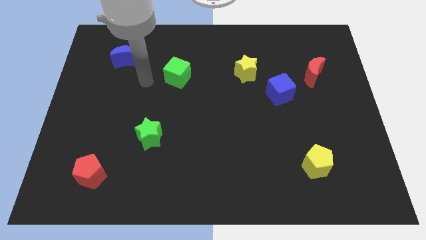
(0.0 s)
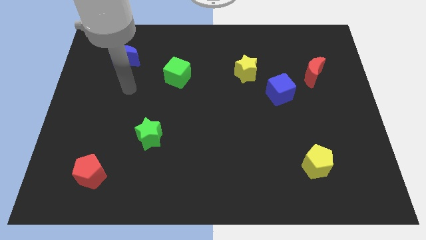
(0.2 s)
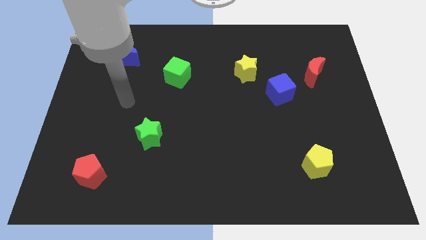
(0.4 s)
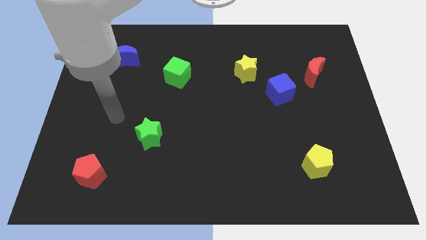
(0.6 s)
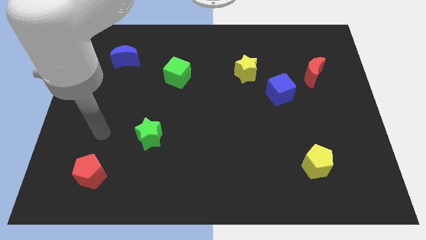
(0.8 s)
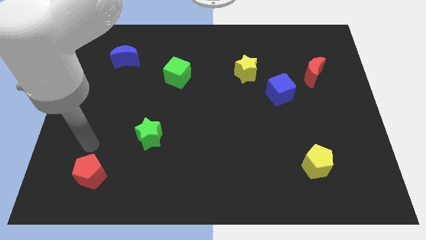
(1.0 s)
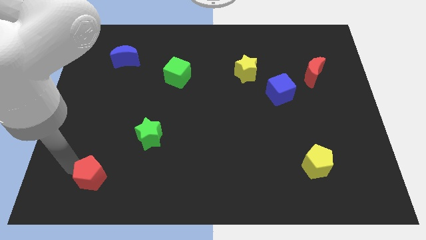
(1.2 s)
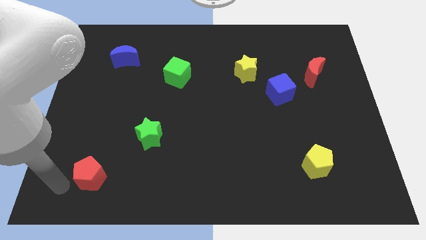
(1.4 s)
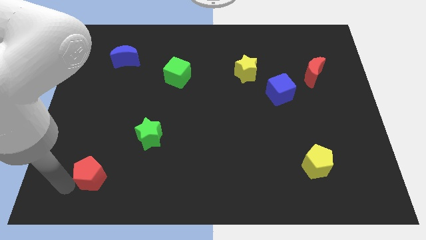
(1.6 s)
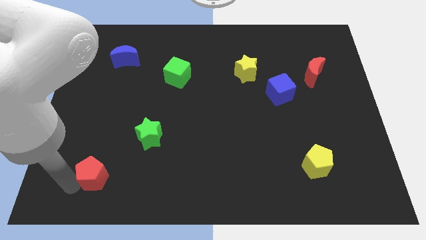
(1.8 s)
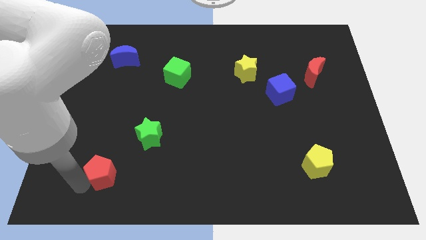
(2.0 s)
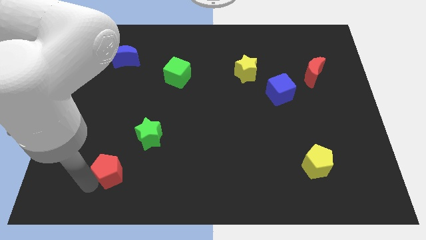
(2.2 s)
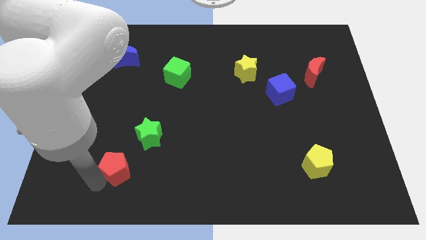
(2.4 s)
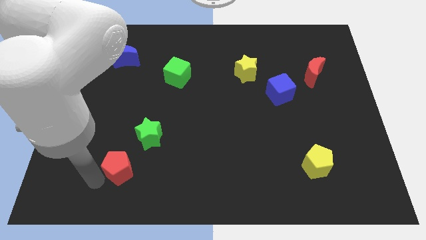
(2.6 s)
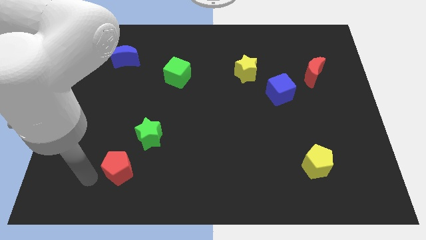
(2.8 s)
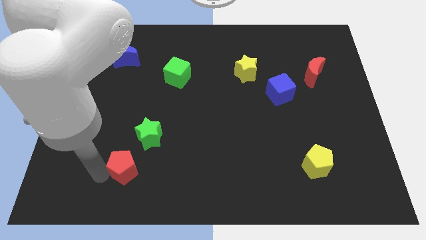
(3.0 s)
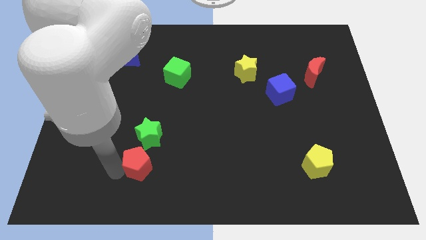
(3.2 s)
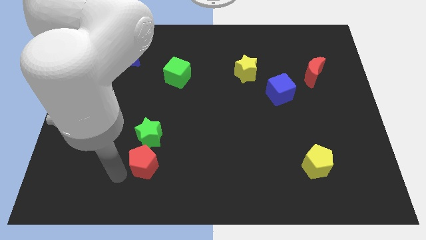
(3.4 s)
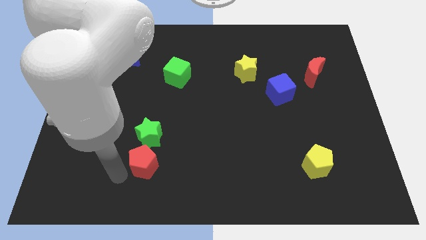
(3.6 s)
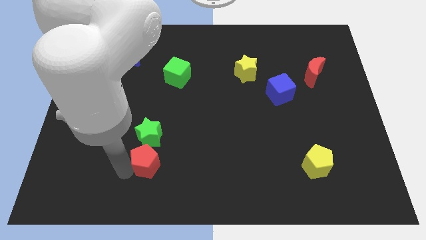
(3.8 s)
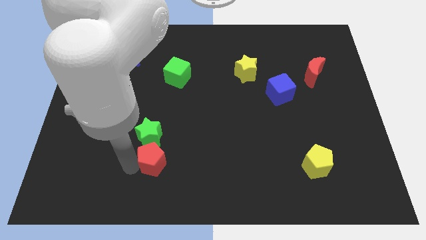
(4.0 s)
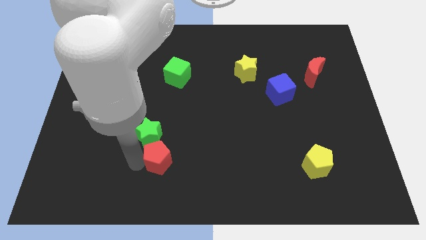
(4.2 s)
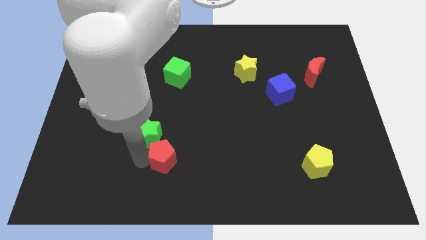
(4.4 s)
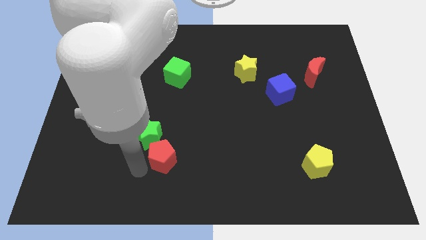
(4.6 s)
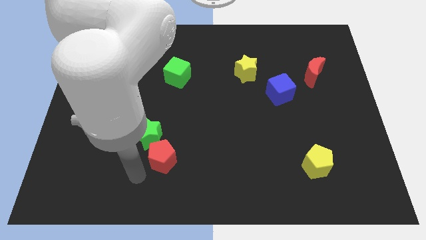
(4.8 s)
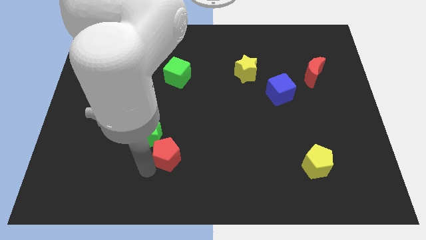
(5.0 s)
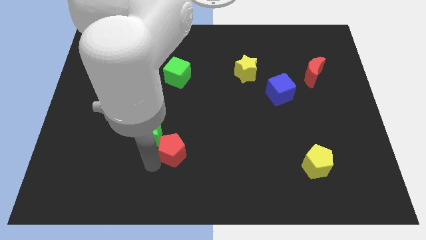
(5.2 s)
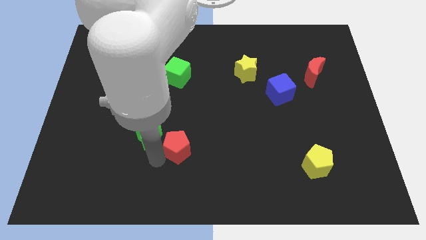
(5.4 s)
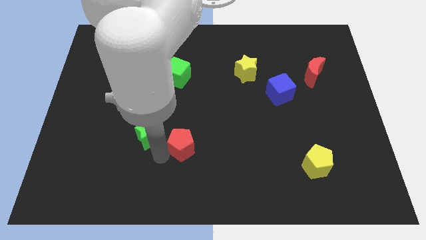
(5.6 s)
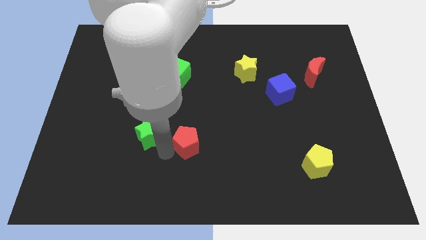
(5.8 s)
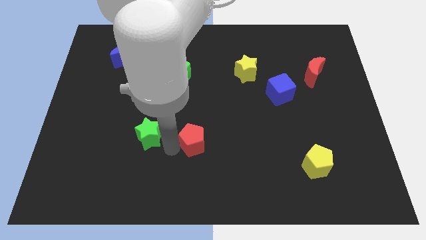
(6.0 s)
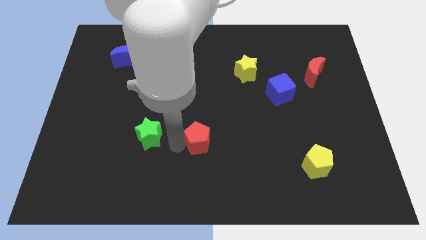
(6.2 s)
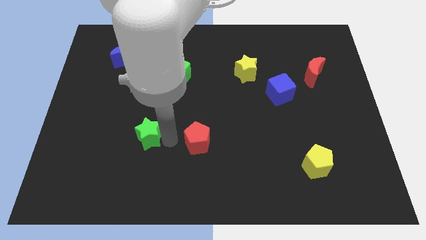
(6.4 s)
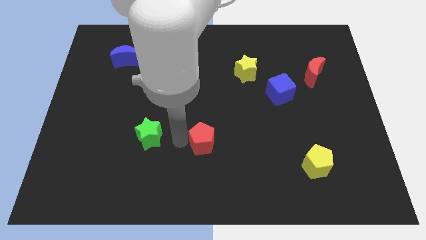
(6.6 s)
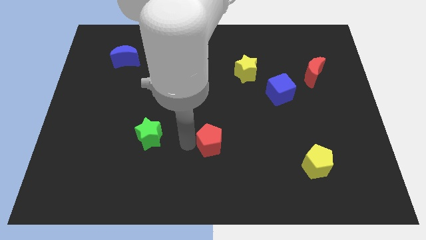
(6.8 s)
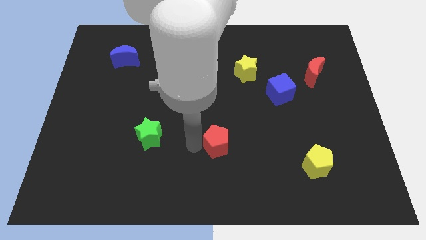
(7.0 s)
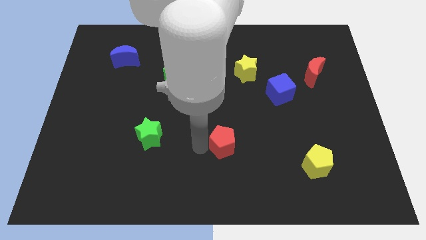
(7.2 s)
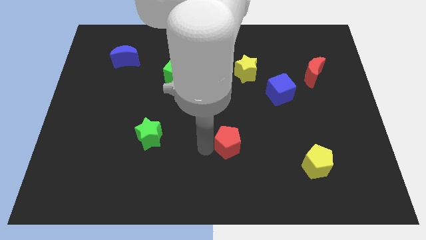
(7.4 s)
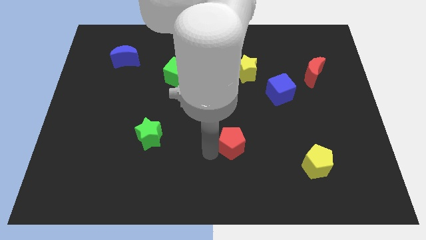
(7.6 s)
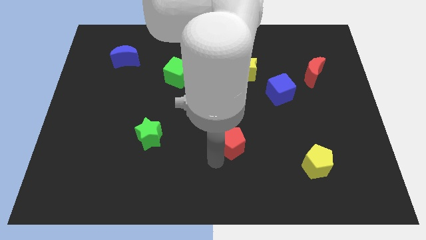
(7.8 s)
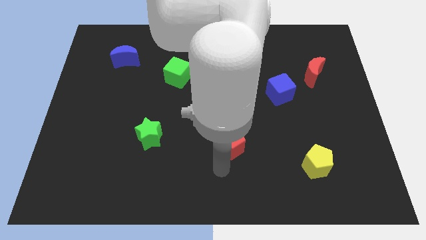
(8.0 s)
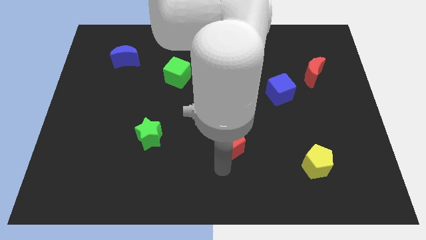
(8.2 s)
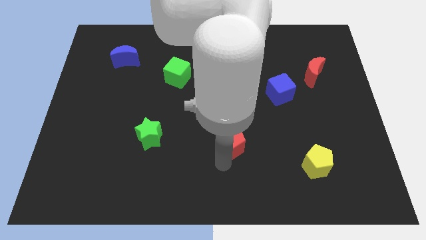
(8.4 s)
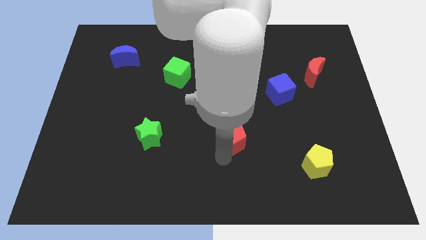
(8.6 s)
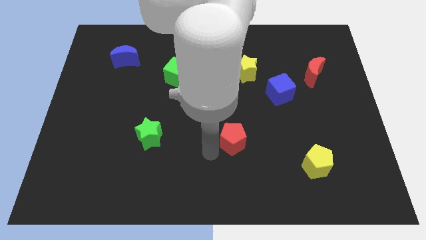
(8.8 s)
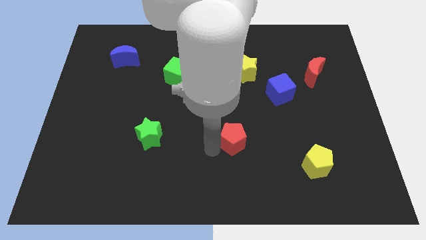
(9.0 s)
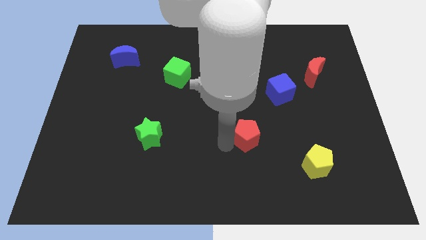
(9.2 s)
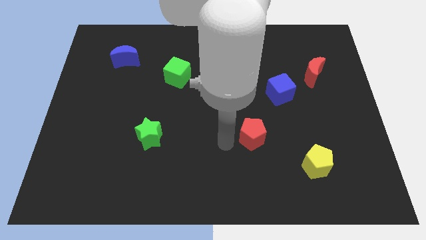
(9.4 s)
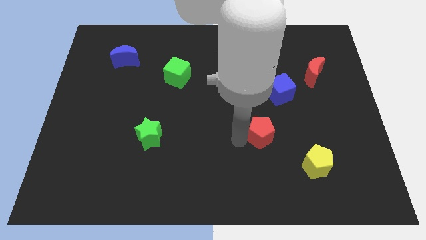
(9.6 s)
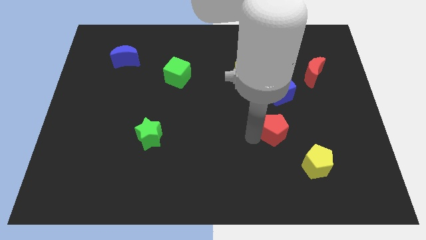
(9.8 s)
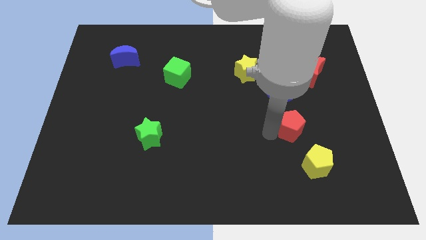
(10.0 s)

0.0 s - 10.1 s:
put the red pentagon to the top of the yellow pentagon

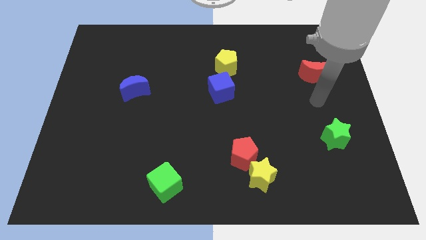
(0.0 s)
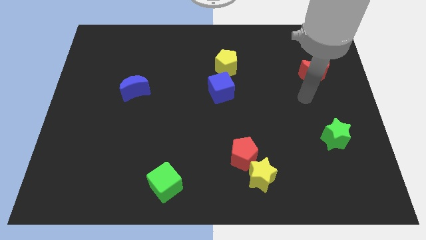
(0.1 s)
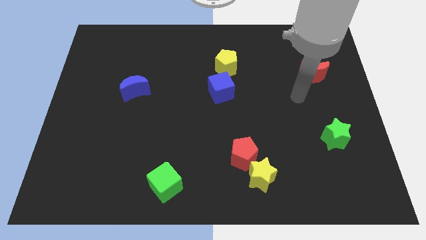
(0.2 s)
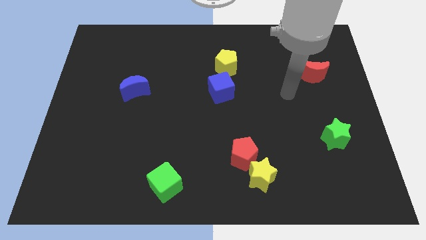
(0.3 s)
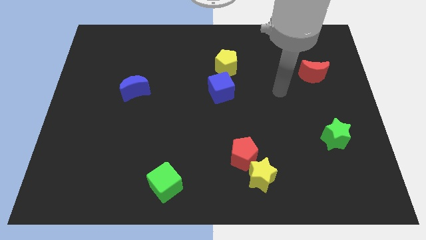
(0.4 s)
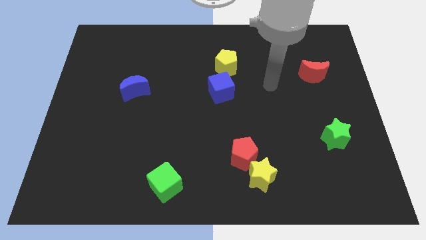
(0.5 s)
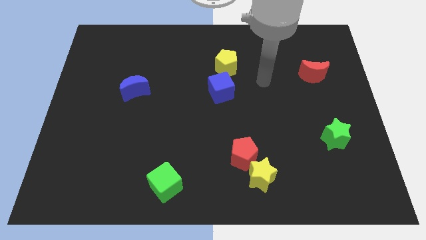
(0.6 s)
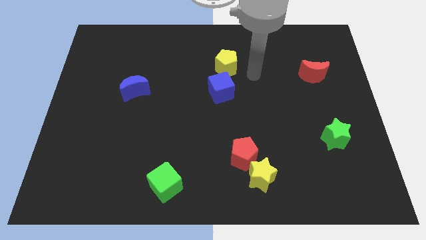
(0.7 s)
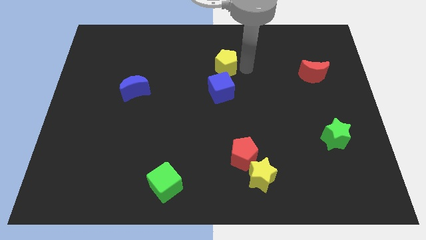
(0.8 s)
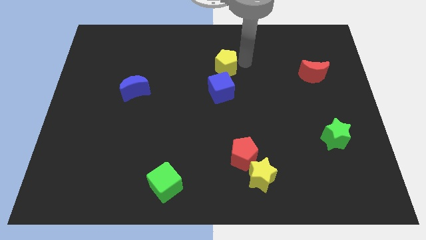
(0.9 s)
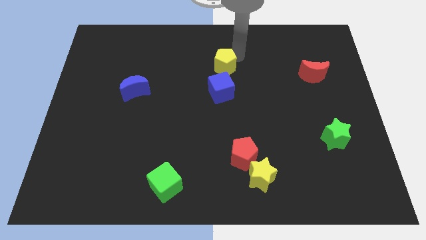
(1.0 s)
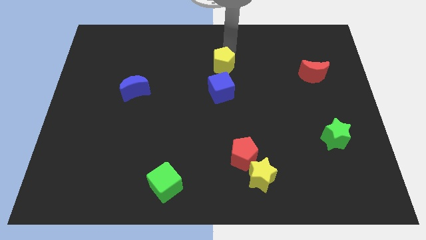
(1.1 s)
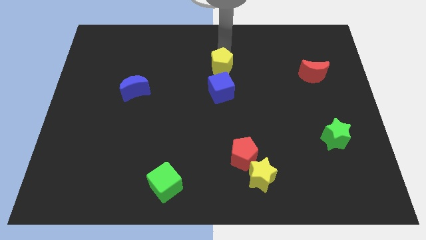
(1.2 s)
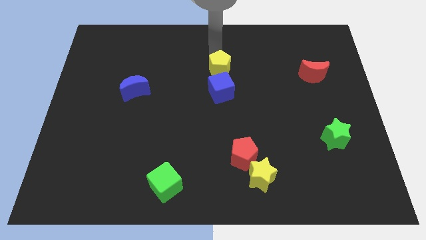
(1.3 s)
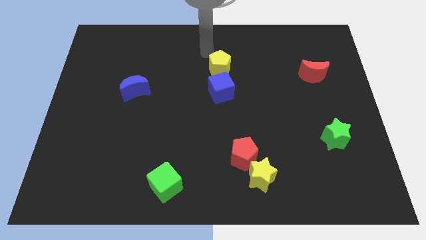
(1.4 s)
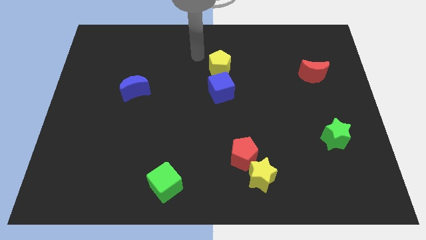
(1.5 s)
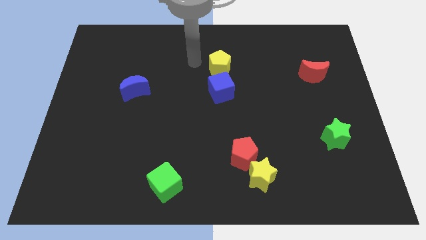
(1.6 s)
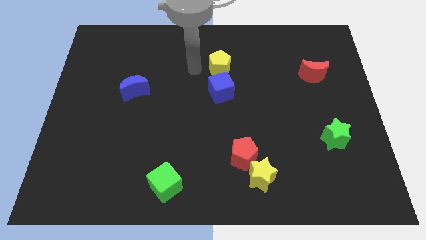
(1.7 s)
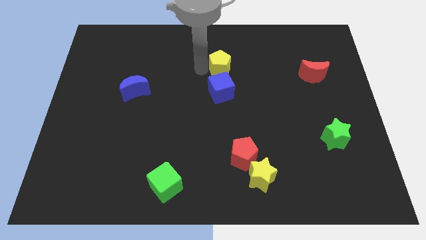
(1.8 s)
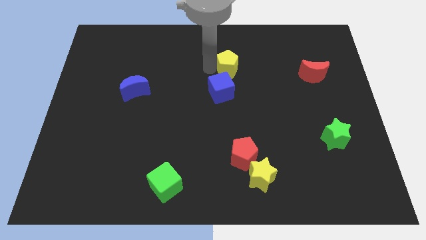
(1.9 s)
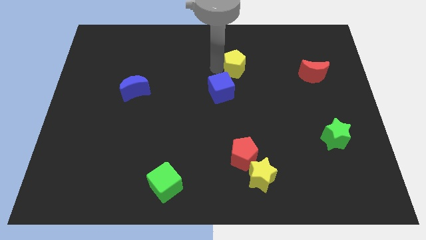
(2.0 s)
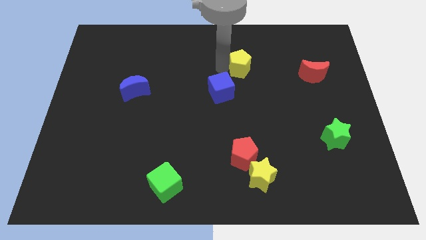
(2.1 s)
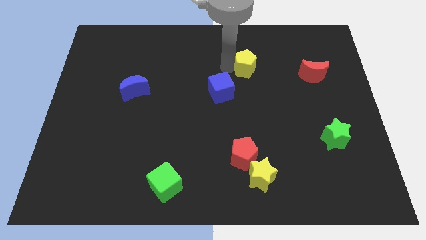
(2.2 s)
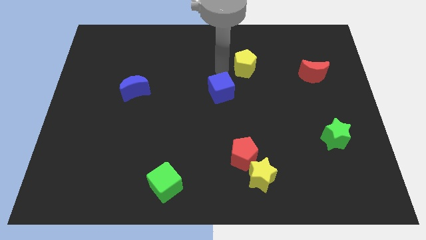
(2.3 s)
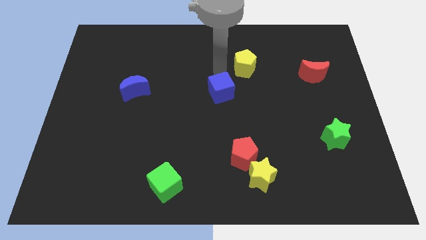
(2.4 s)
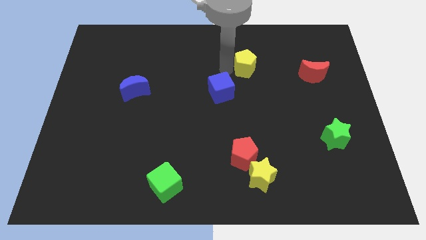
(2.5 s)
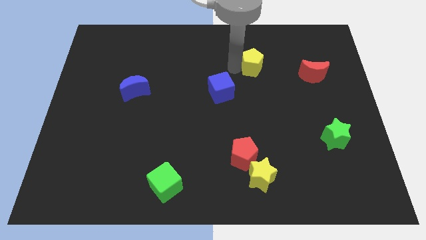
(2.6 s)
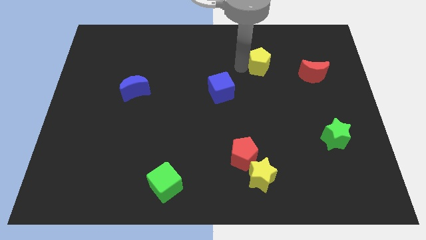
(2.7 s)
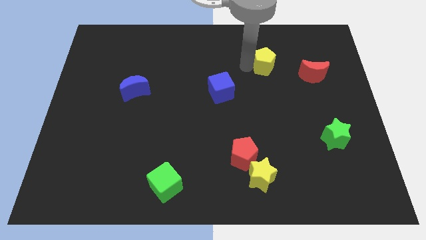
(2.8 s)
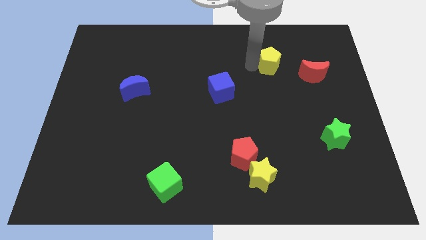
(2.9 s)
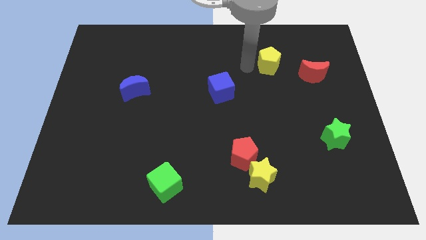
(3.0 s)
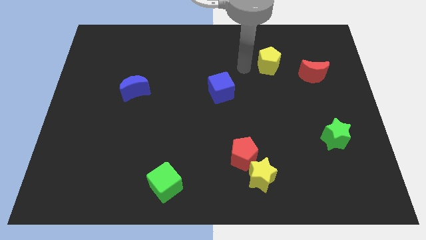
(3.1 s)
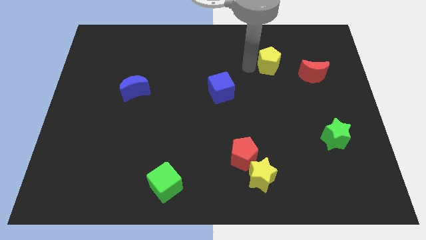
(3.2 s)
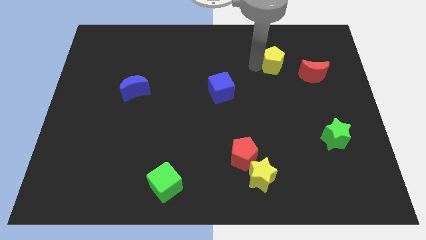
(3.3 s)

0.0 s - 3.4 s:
push the yellow pentagon to the top left side of the red moon
